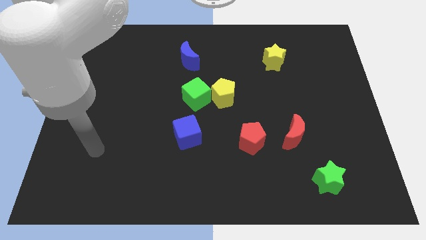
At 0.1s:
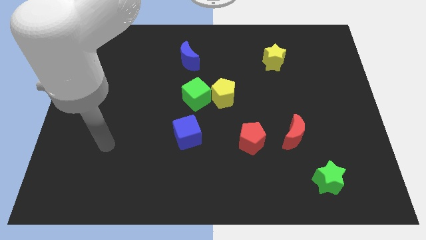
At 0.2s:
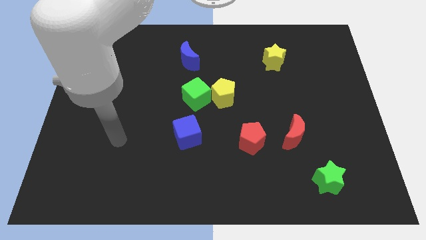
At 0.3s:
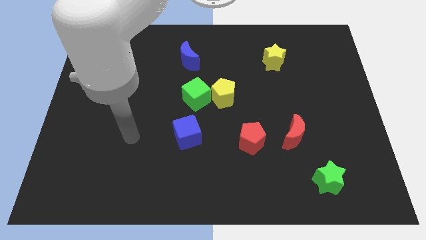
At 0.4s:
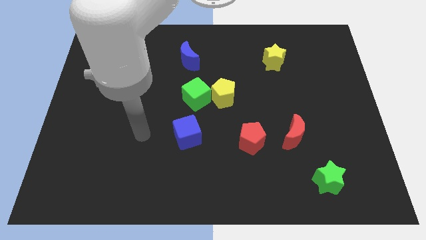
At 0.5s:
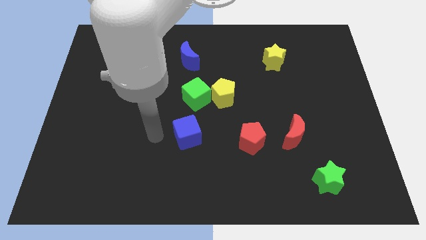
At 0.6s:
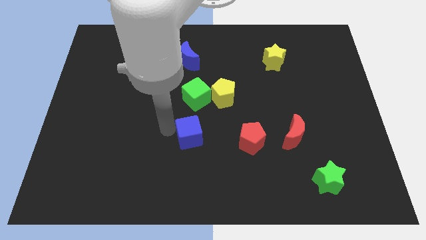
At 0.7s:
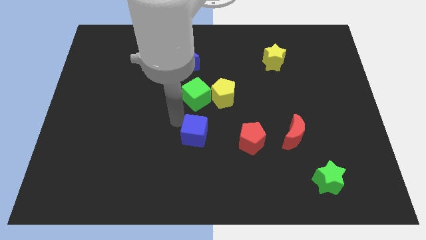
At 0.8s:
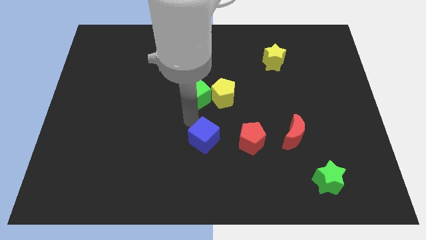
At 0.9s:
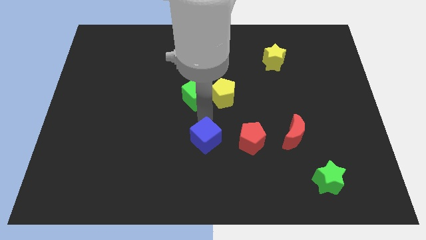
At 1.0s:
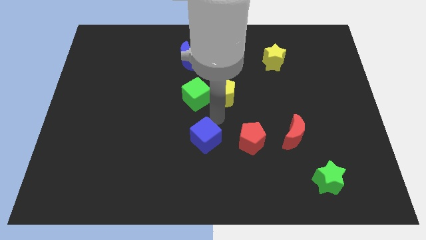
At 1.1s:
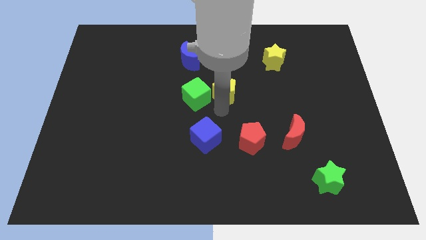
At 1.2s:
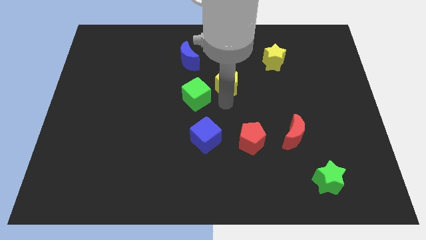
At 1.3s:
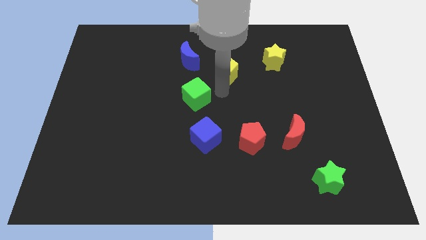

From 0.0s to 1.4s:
move the green cube away from the yellow pentagon

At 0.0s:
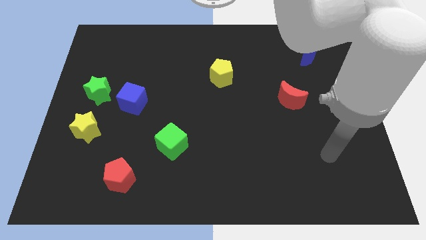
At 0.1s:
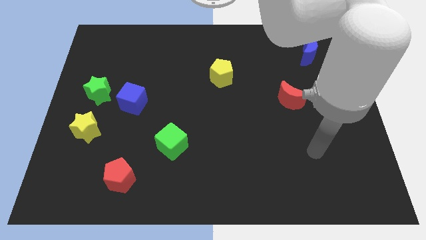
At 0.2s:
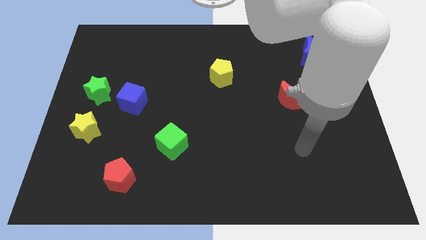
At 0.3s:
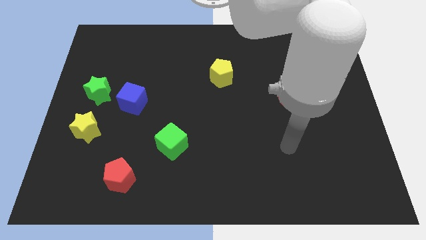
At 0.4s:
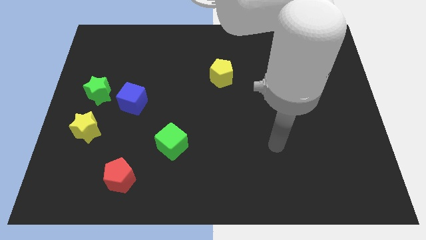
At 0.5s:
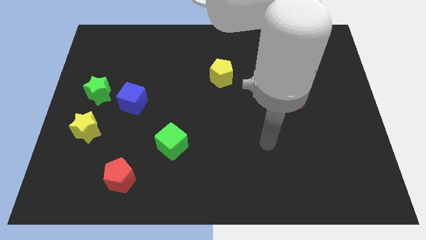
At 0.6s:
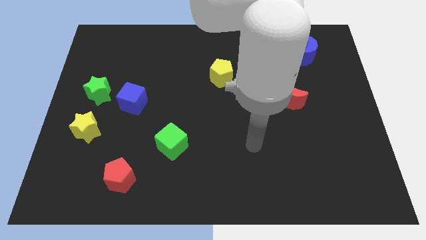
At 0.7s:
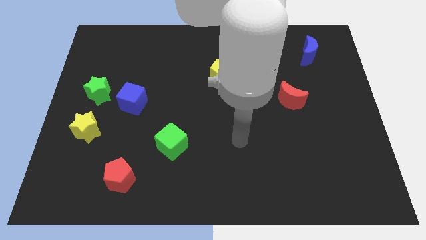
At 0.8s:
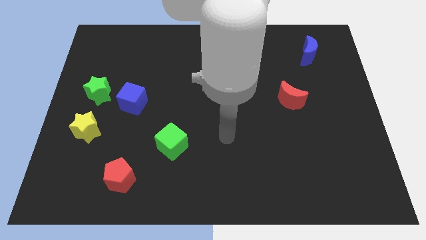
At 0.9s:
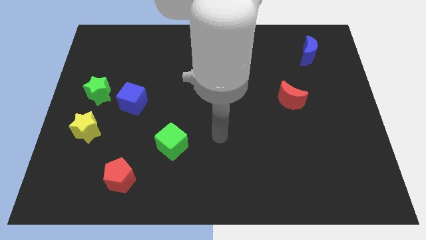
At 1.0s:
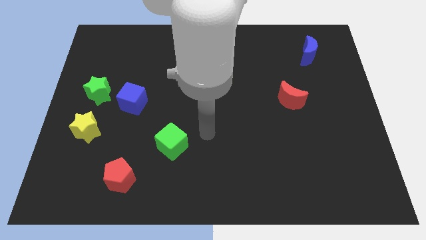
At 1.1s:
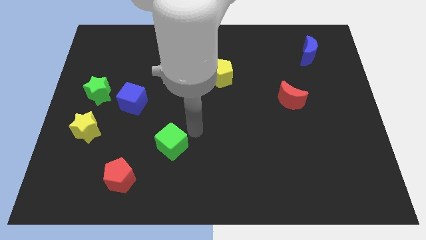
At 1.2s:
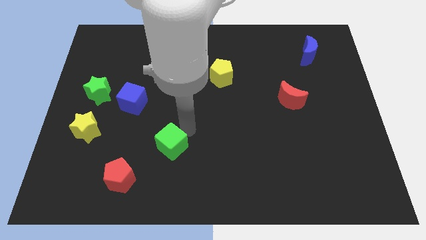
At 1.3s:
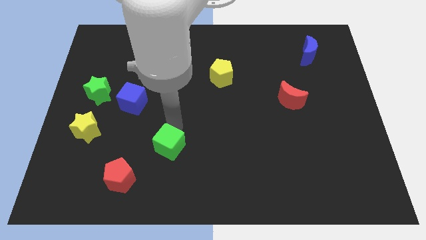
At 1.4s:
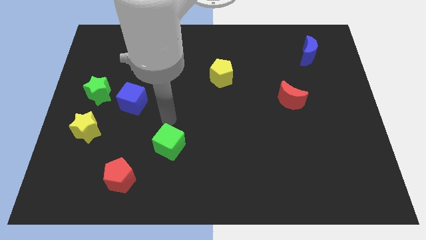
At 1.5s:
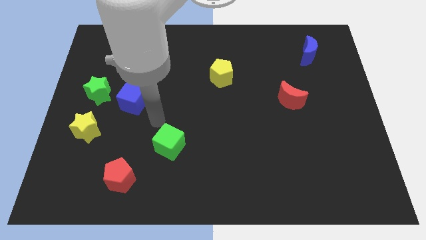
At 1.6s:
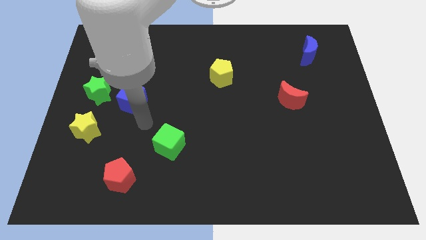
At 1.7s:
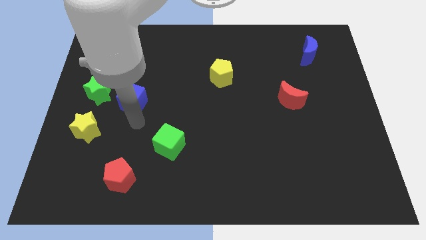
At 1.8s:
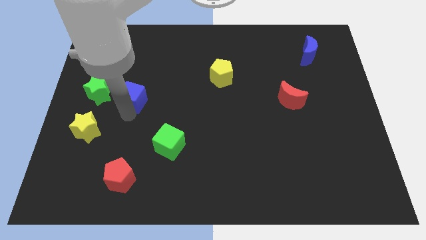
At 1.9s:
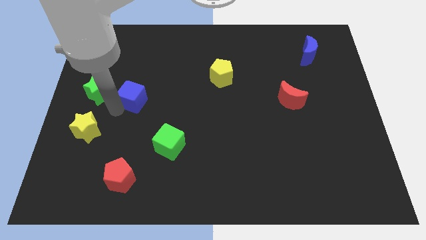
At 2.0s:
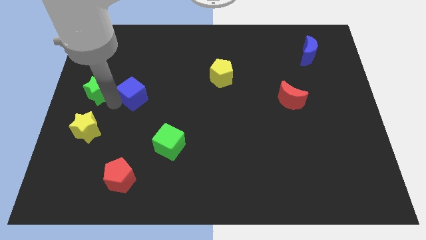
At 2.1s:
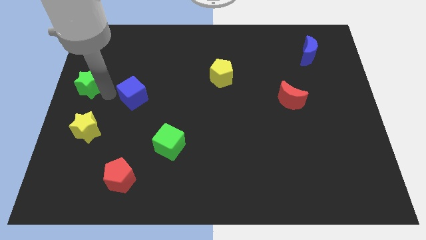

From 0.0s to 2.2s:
pull the blue cube apart from the green star

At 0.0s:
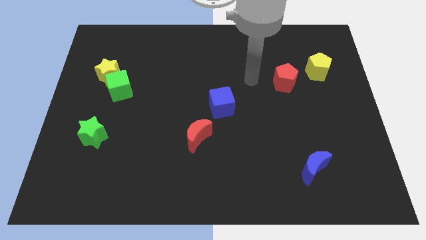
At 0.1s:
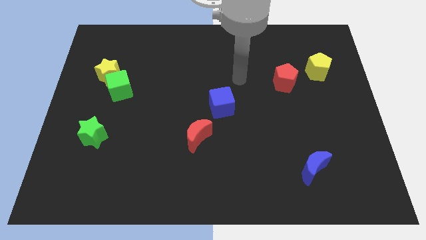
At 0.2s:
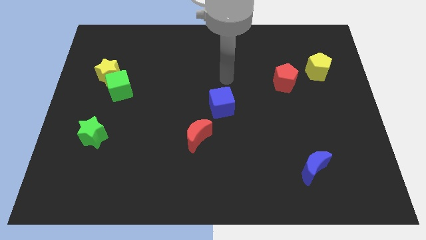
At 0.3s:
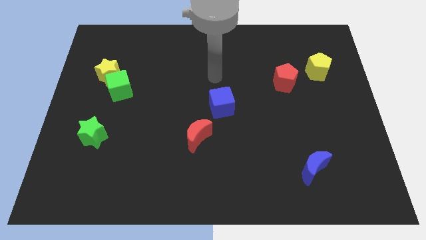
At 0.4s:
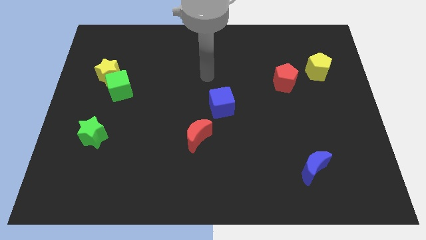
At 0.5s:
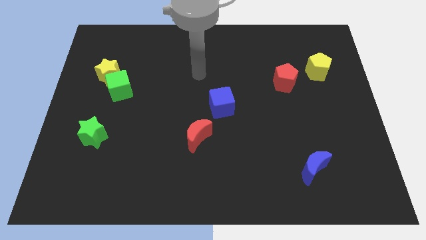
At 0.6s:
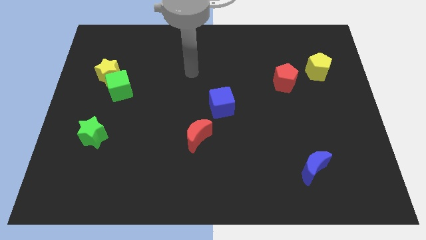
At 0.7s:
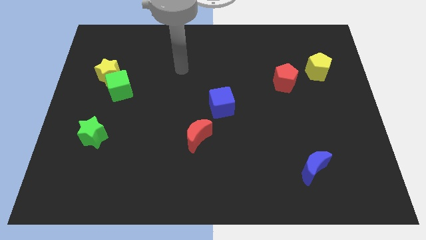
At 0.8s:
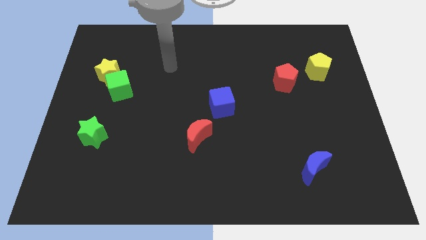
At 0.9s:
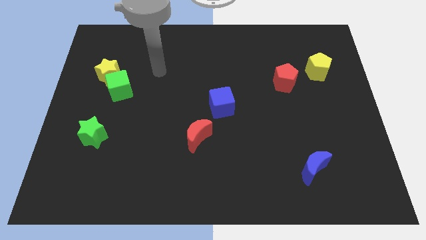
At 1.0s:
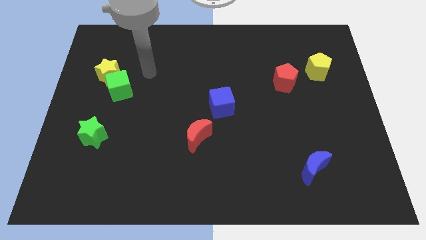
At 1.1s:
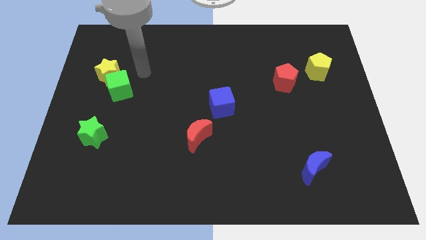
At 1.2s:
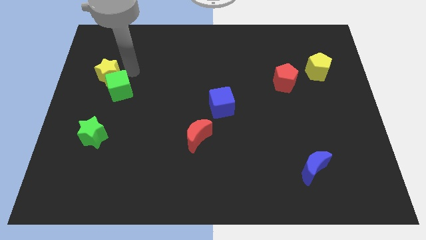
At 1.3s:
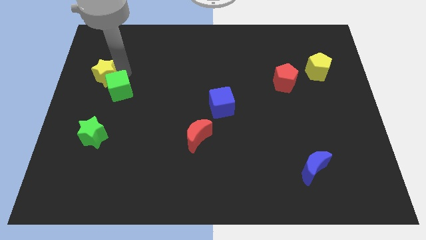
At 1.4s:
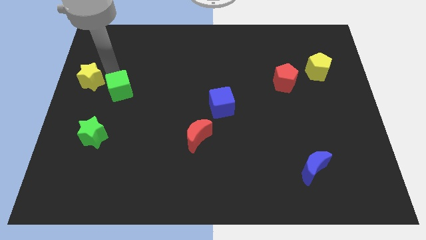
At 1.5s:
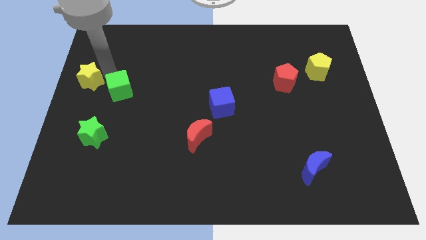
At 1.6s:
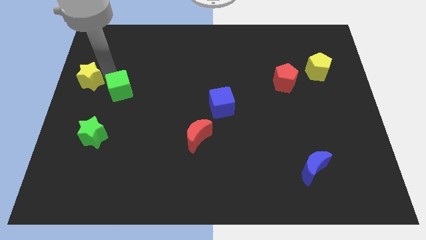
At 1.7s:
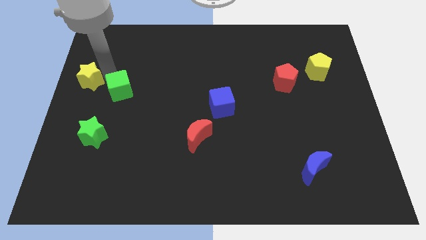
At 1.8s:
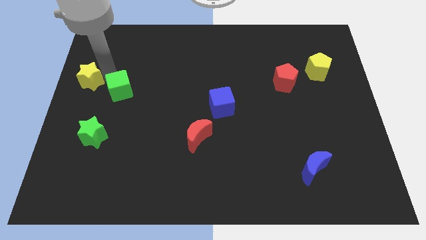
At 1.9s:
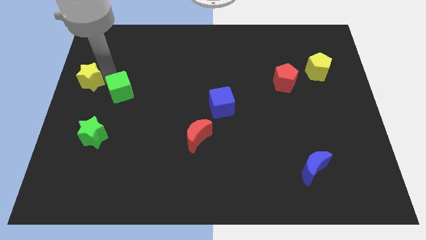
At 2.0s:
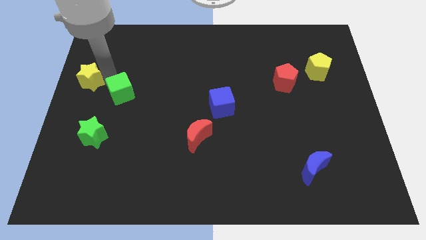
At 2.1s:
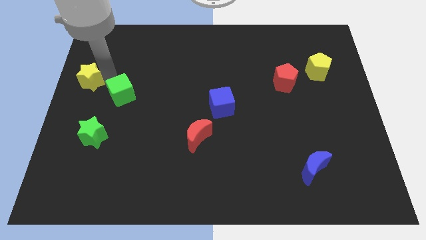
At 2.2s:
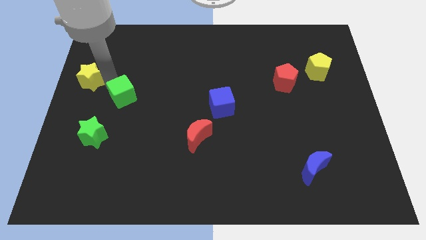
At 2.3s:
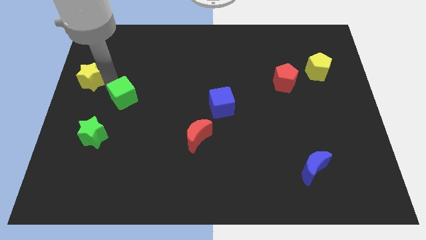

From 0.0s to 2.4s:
move the green cube away from the yellow star

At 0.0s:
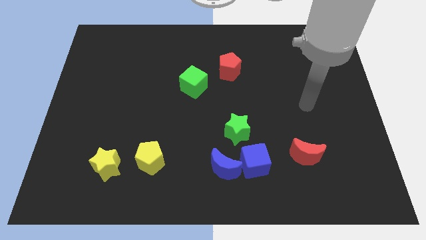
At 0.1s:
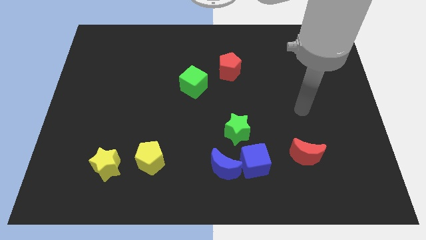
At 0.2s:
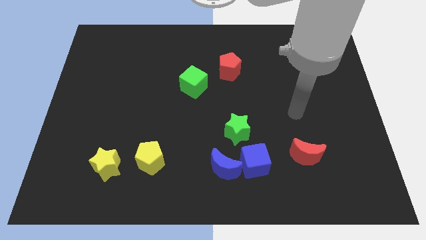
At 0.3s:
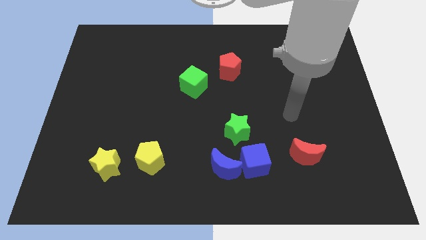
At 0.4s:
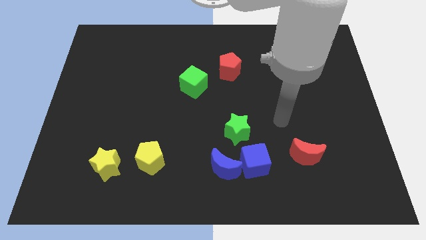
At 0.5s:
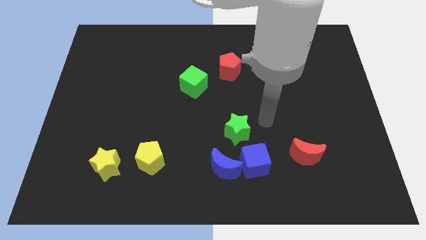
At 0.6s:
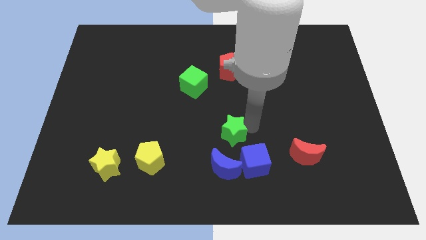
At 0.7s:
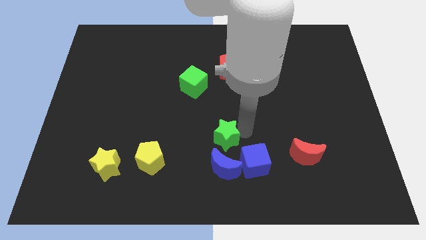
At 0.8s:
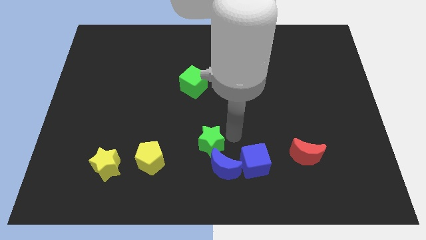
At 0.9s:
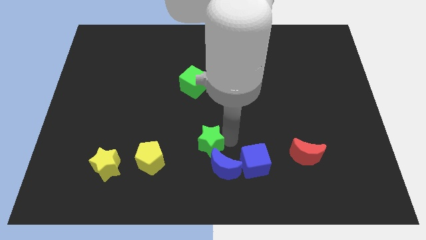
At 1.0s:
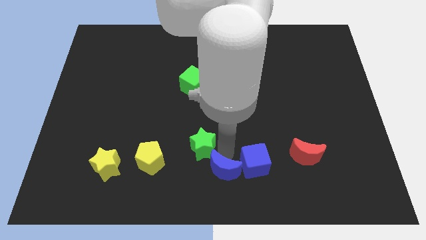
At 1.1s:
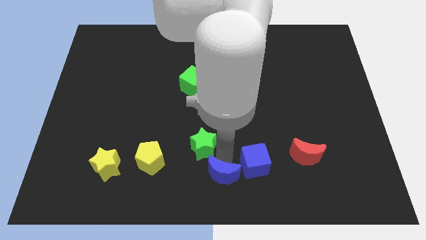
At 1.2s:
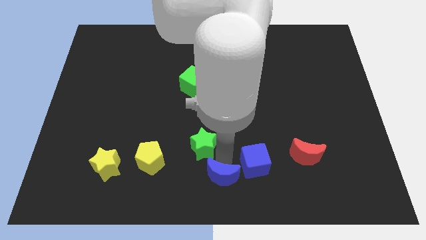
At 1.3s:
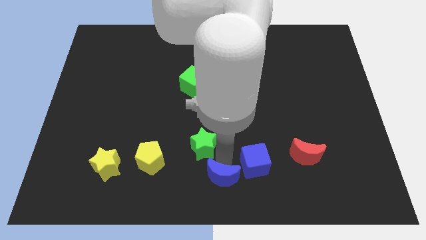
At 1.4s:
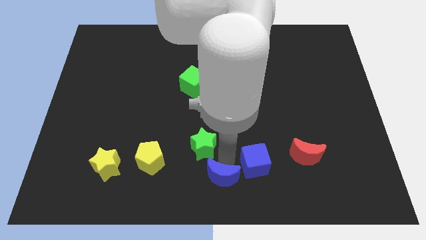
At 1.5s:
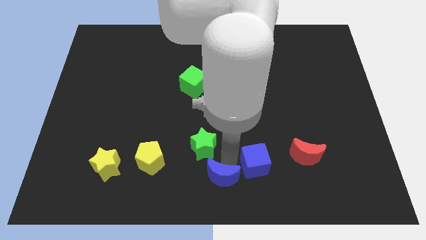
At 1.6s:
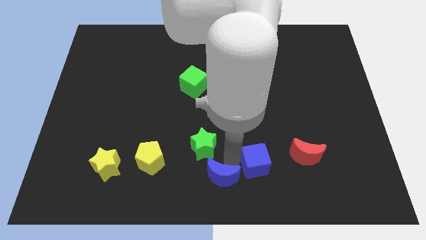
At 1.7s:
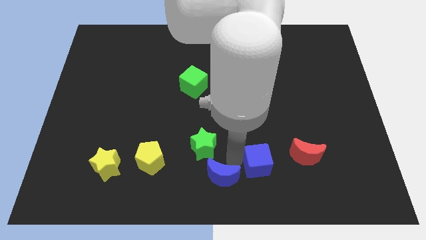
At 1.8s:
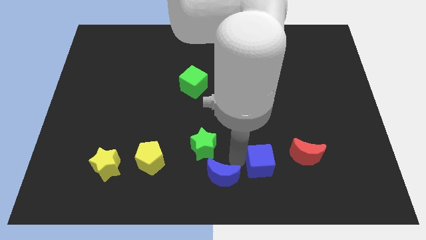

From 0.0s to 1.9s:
pull the blue cube apart from the blue moon and green star

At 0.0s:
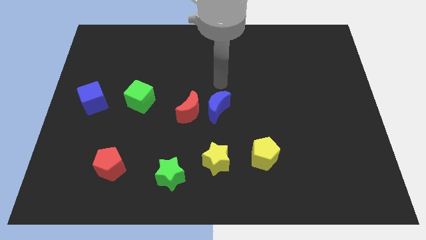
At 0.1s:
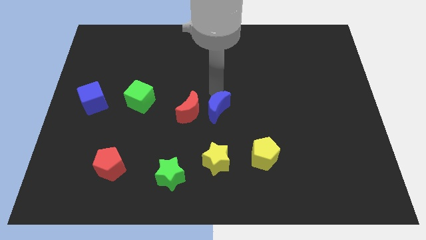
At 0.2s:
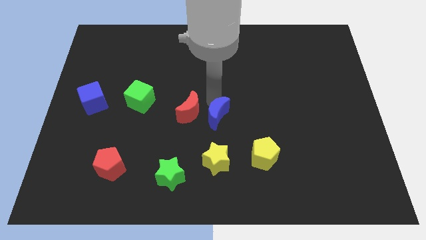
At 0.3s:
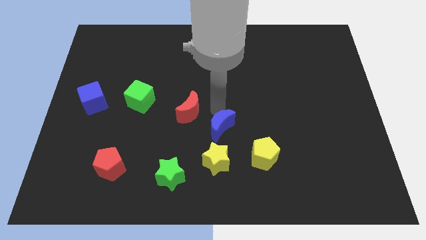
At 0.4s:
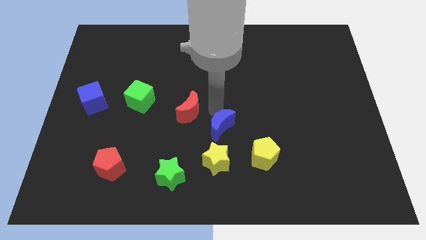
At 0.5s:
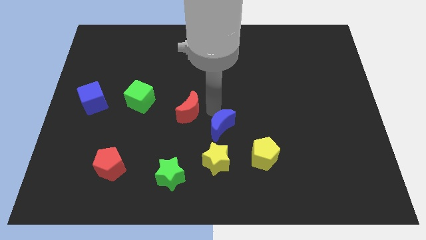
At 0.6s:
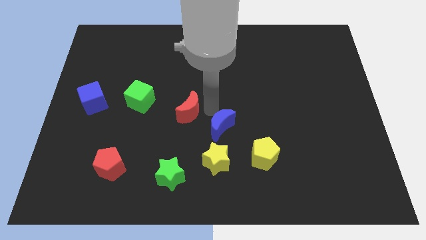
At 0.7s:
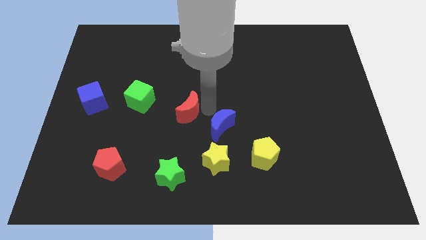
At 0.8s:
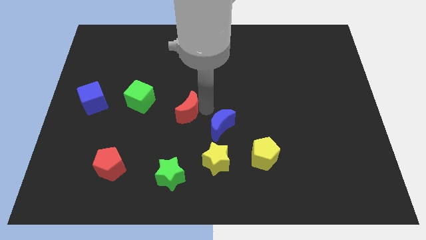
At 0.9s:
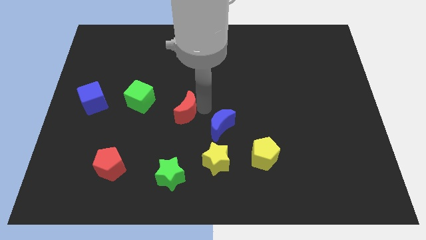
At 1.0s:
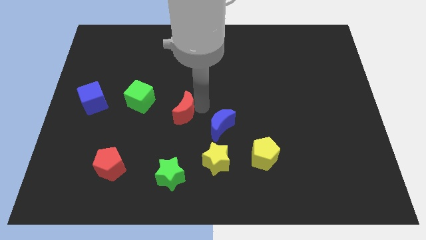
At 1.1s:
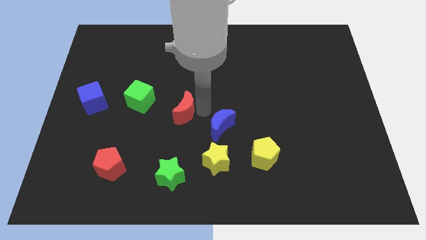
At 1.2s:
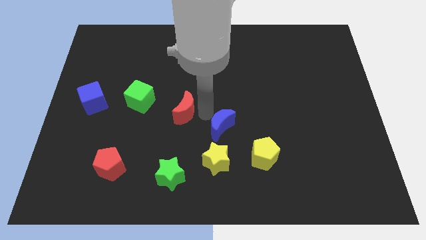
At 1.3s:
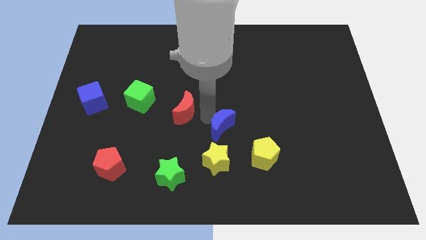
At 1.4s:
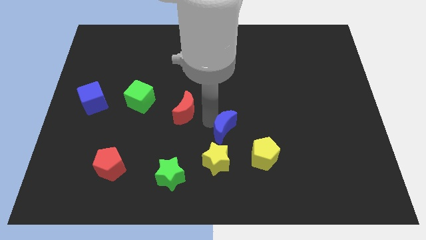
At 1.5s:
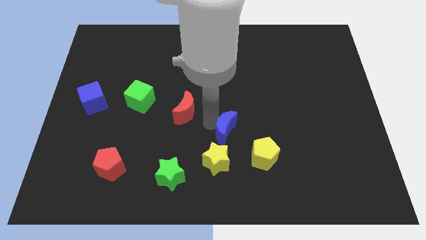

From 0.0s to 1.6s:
separate the red moon from the blue moon

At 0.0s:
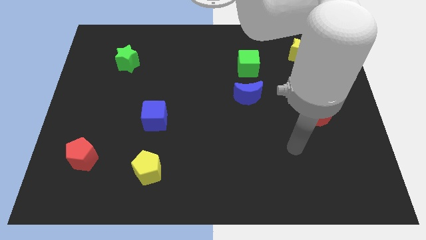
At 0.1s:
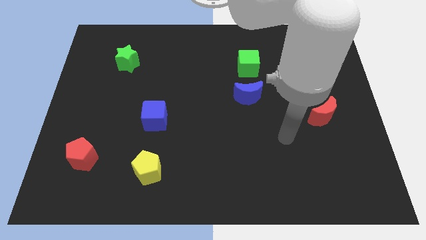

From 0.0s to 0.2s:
separate the blue moon from the green cube
